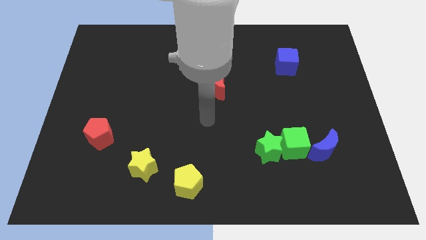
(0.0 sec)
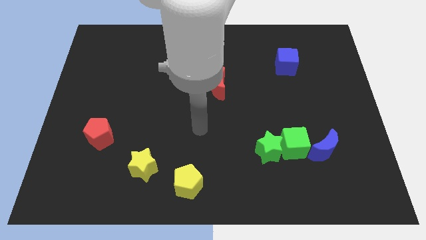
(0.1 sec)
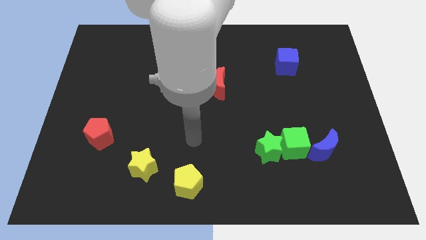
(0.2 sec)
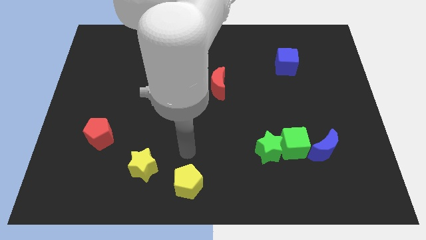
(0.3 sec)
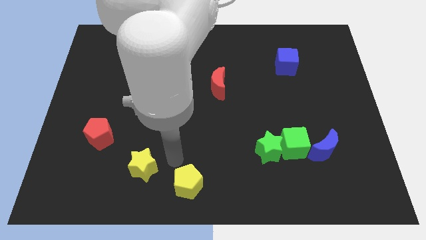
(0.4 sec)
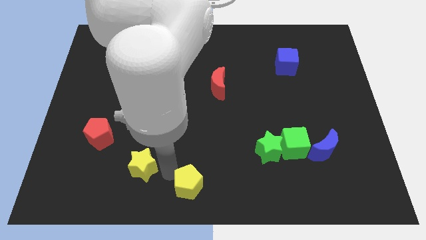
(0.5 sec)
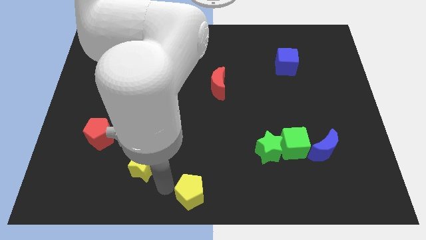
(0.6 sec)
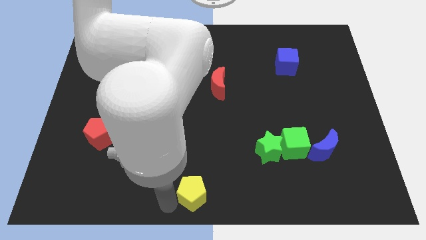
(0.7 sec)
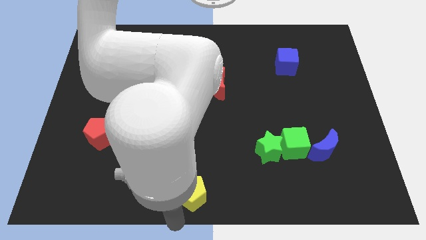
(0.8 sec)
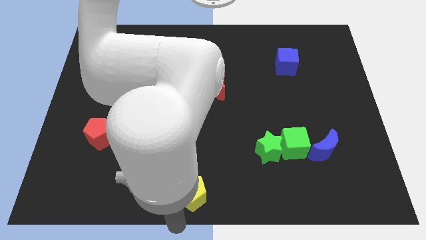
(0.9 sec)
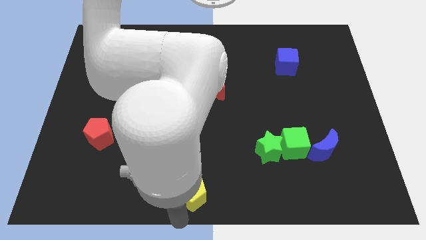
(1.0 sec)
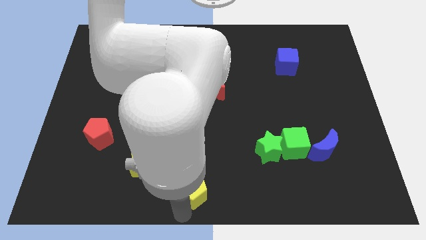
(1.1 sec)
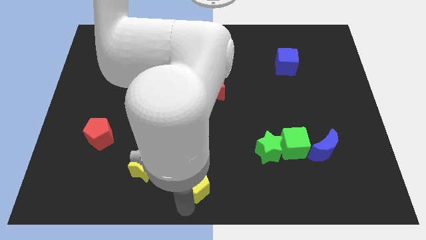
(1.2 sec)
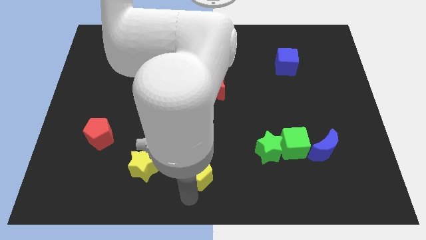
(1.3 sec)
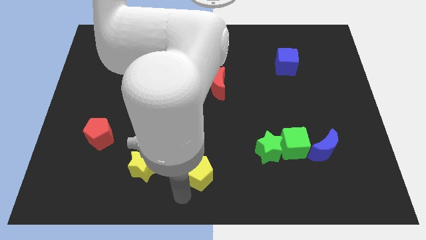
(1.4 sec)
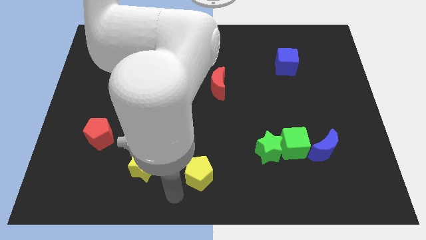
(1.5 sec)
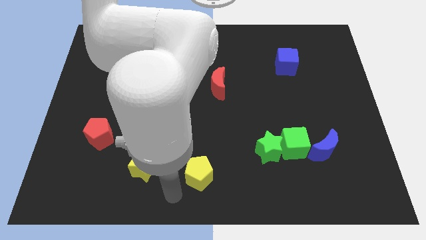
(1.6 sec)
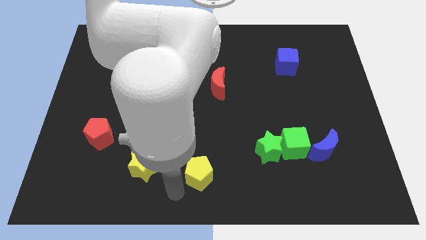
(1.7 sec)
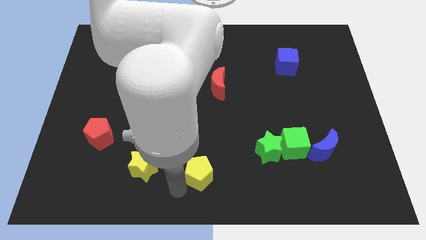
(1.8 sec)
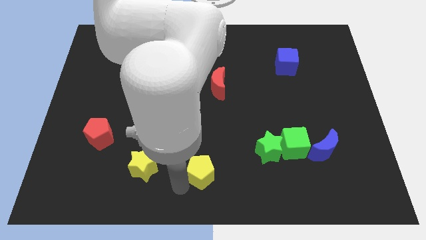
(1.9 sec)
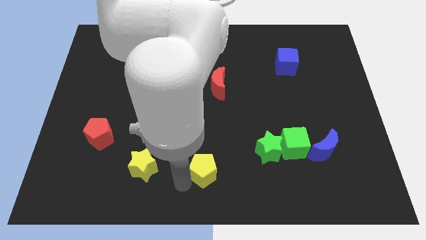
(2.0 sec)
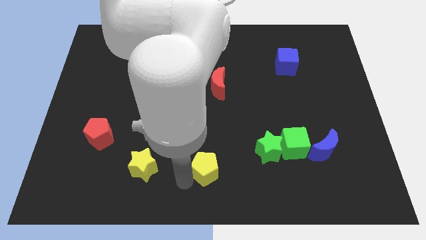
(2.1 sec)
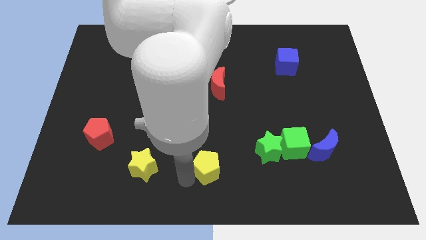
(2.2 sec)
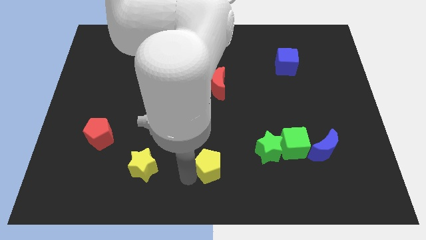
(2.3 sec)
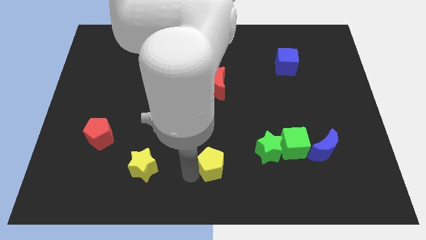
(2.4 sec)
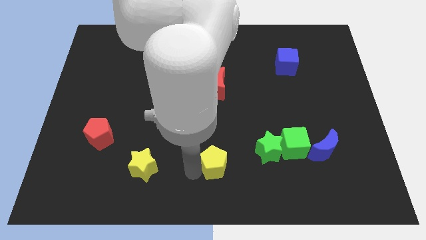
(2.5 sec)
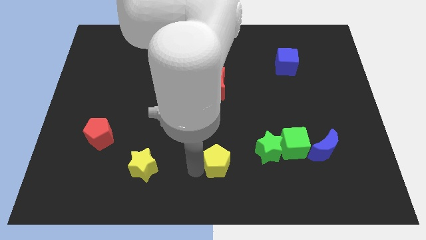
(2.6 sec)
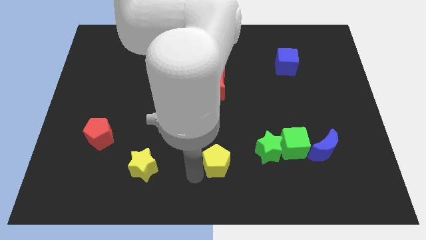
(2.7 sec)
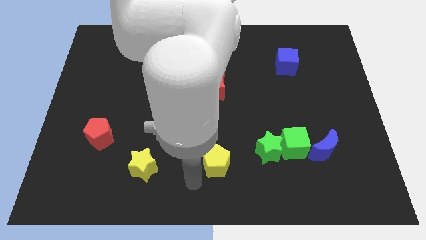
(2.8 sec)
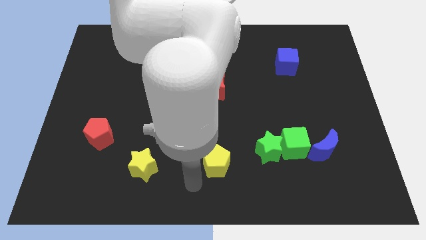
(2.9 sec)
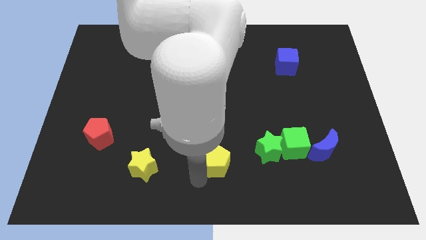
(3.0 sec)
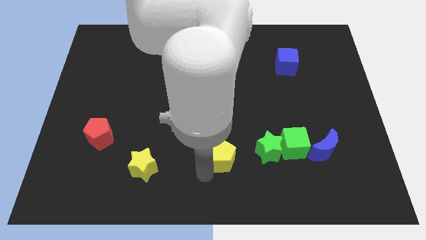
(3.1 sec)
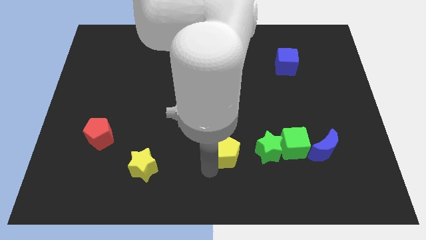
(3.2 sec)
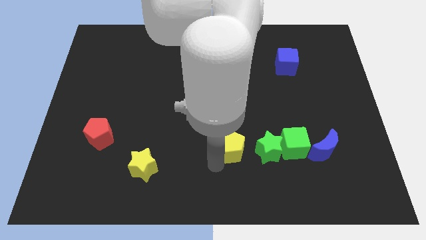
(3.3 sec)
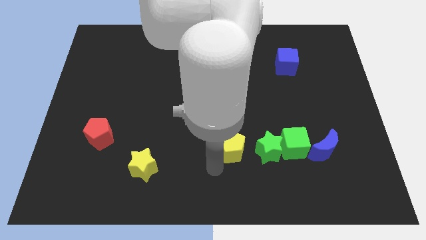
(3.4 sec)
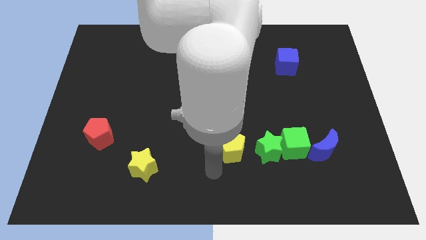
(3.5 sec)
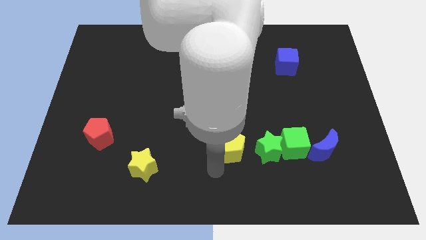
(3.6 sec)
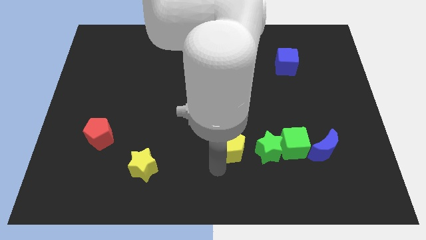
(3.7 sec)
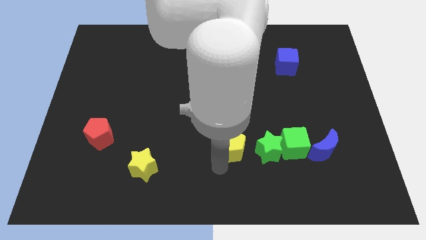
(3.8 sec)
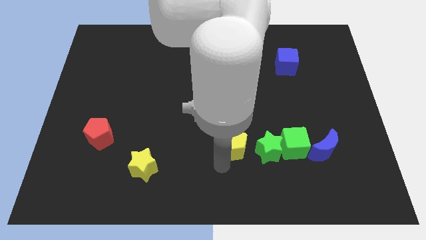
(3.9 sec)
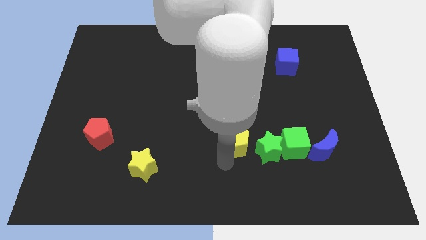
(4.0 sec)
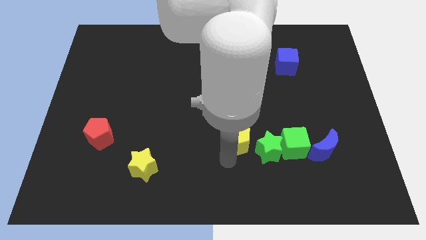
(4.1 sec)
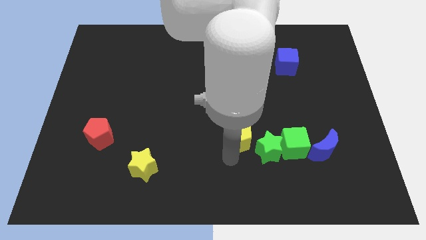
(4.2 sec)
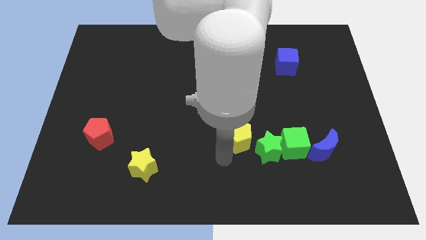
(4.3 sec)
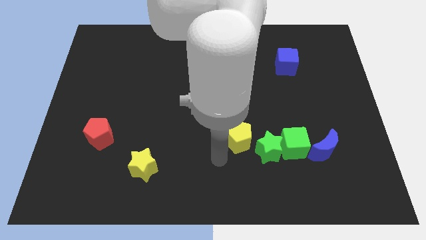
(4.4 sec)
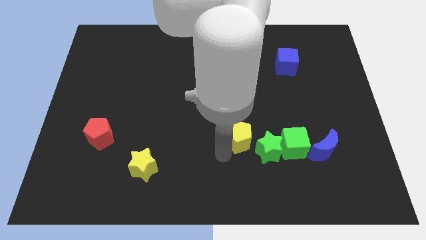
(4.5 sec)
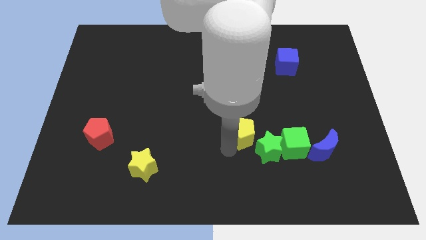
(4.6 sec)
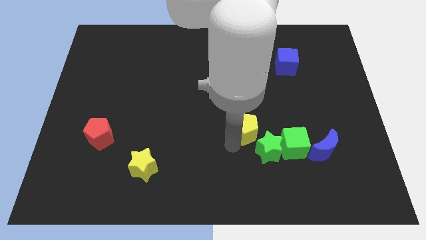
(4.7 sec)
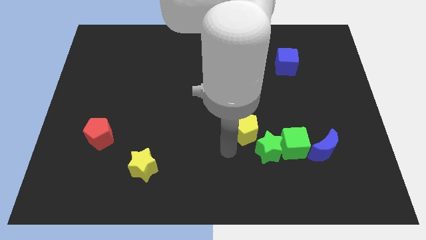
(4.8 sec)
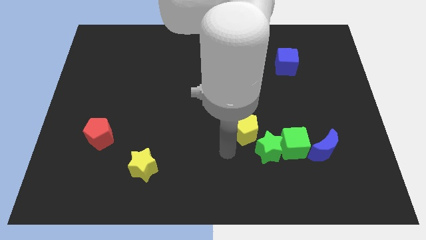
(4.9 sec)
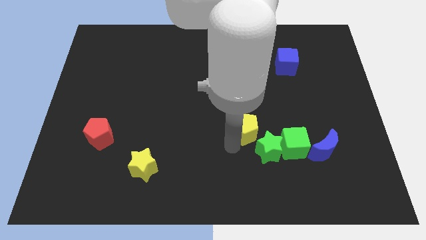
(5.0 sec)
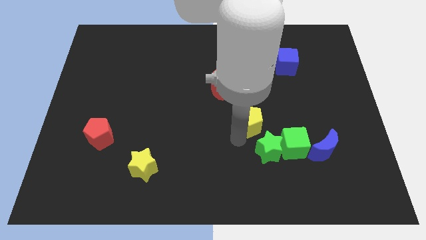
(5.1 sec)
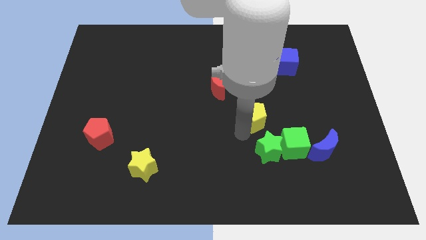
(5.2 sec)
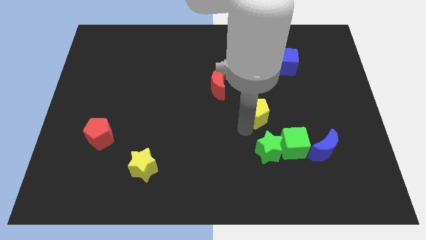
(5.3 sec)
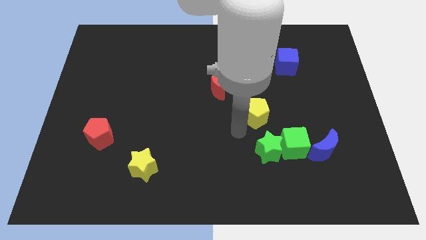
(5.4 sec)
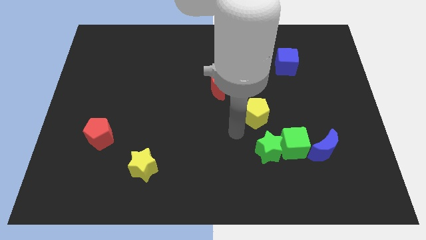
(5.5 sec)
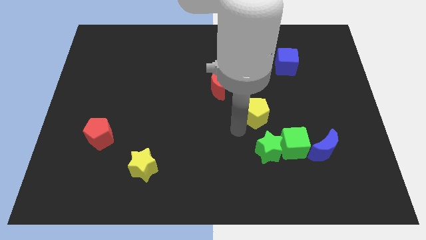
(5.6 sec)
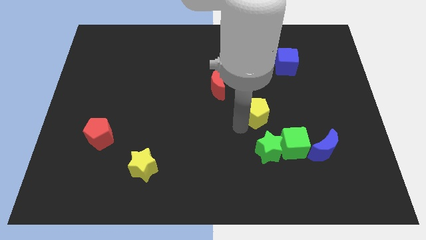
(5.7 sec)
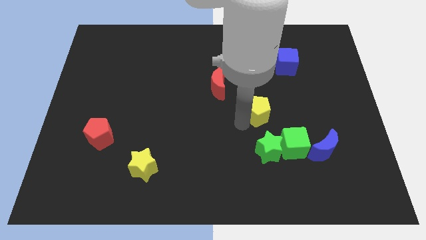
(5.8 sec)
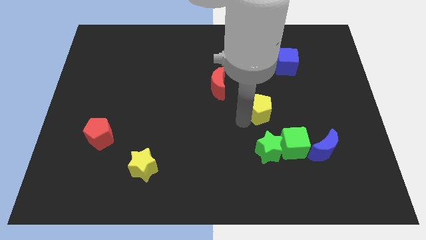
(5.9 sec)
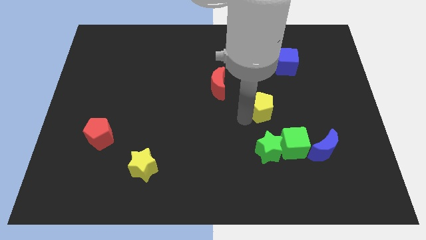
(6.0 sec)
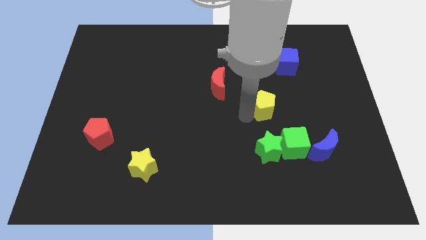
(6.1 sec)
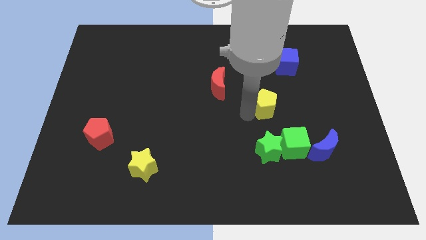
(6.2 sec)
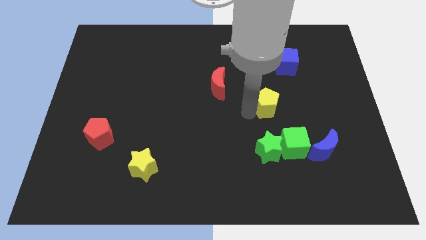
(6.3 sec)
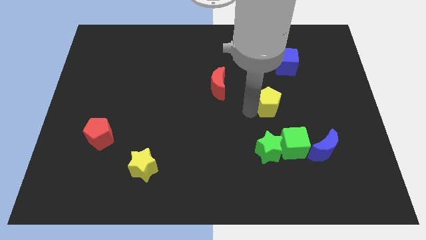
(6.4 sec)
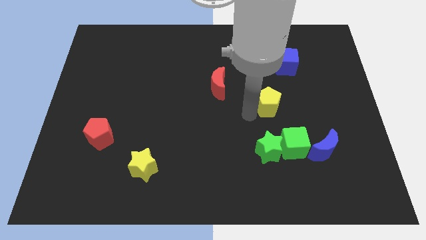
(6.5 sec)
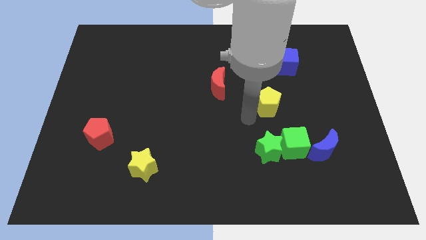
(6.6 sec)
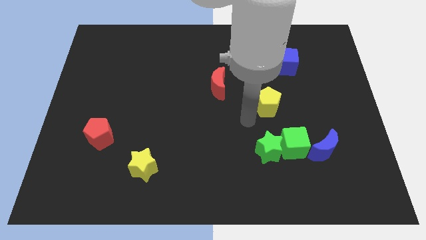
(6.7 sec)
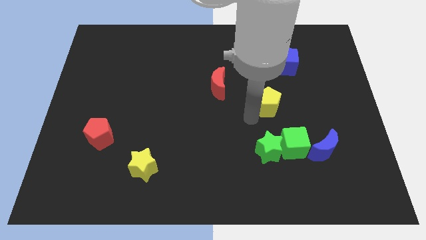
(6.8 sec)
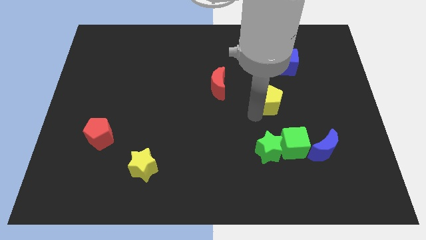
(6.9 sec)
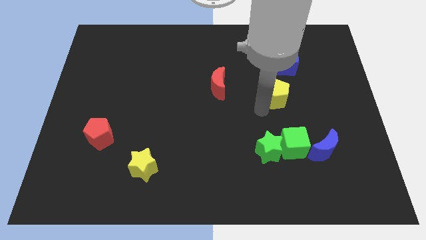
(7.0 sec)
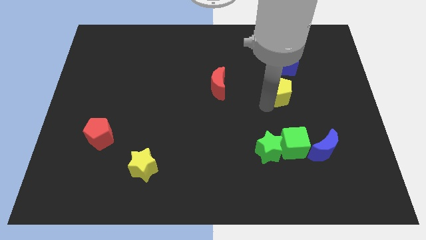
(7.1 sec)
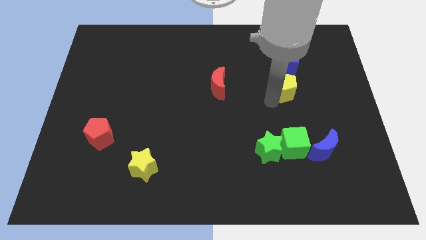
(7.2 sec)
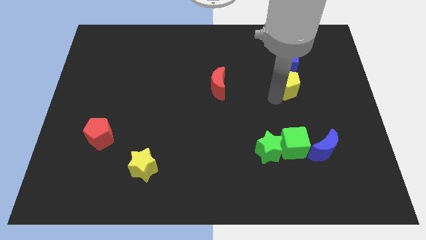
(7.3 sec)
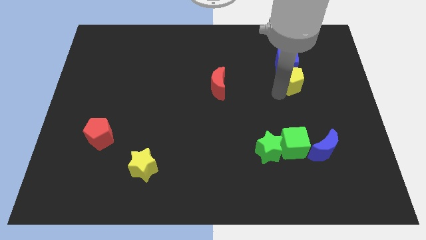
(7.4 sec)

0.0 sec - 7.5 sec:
move the yellow pentagon to the bottom right side of the blue cube
